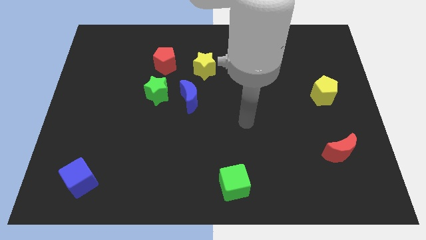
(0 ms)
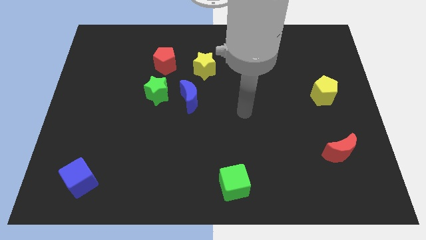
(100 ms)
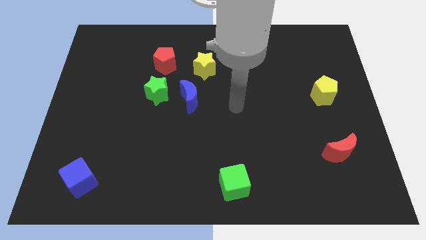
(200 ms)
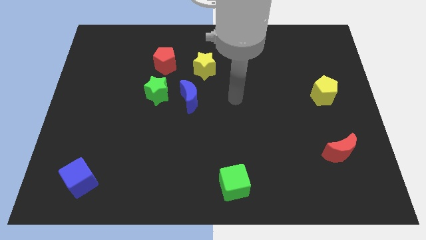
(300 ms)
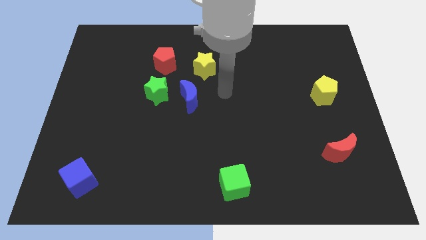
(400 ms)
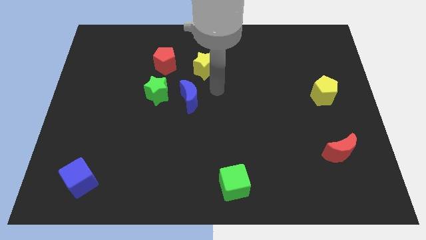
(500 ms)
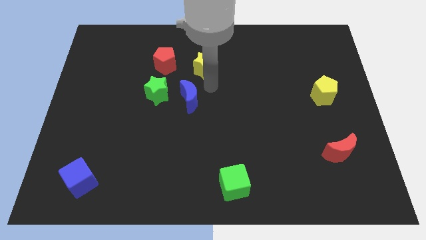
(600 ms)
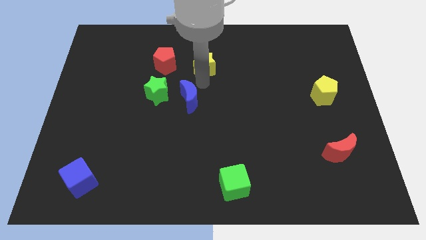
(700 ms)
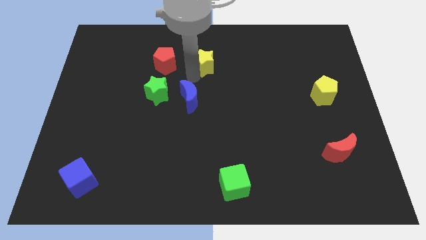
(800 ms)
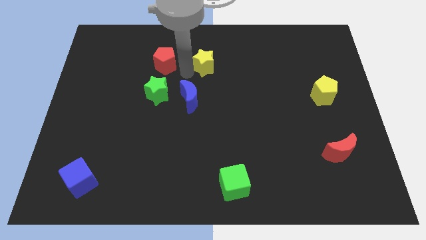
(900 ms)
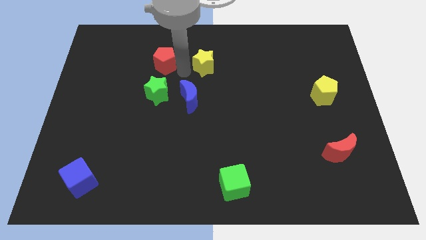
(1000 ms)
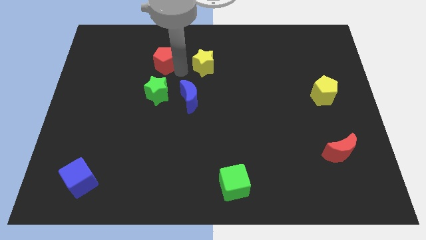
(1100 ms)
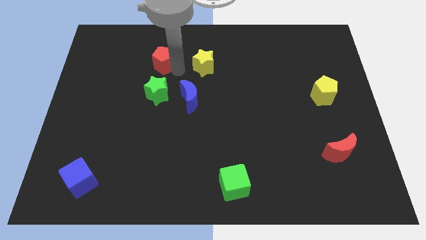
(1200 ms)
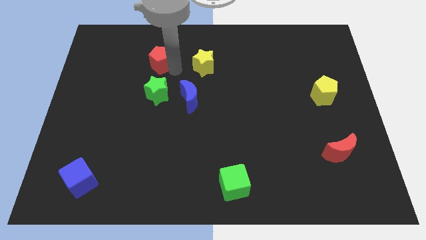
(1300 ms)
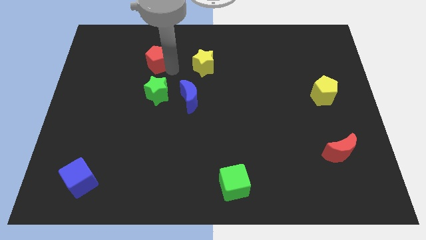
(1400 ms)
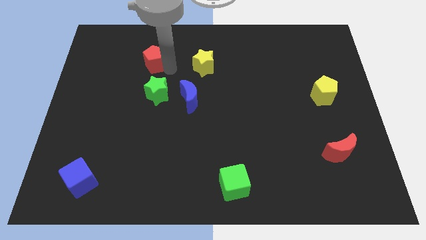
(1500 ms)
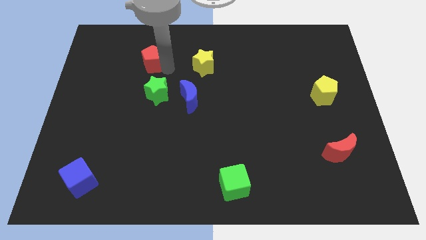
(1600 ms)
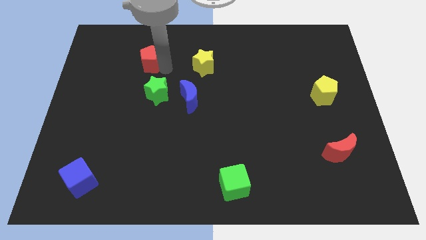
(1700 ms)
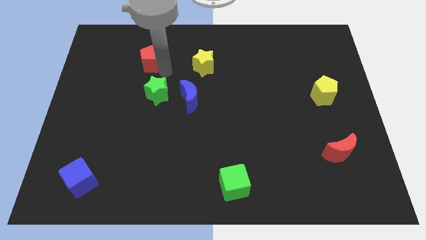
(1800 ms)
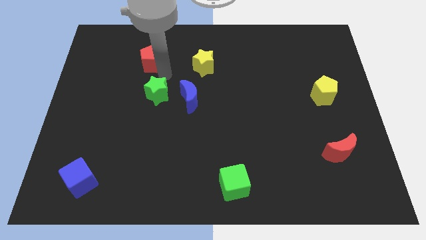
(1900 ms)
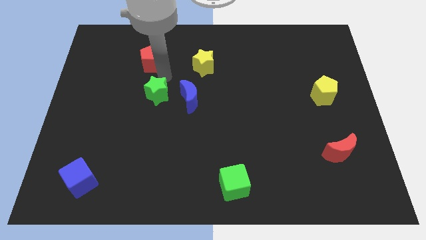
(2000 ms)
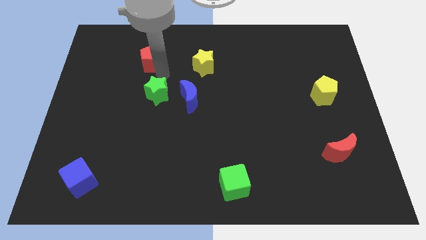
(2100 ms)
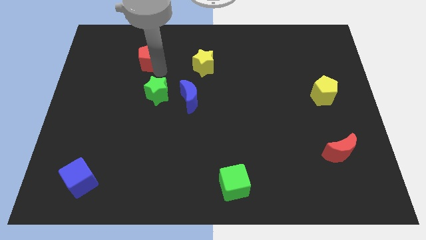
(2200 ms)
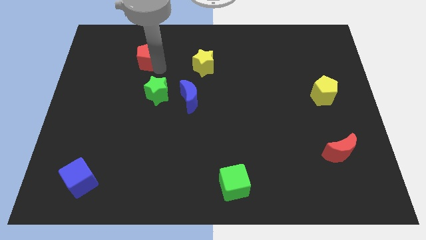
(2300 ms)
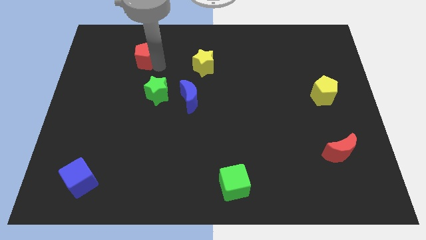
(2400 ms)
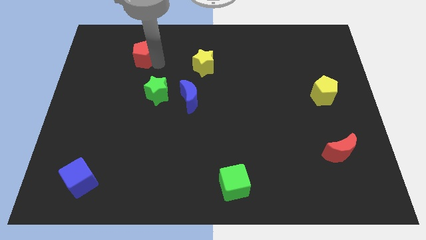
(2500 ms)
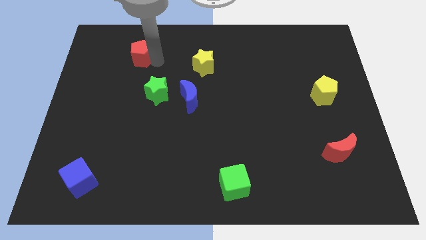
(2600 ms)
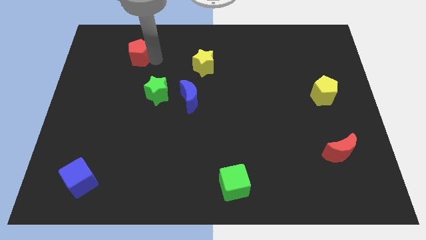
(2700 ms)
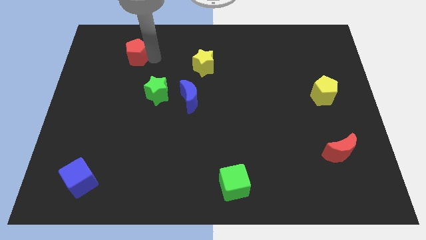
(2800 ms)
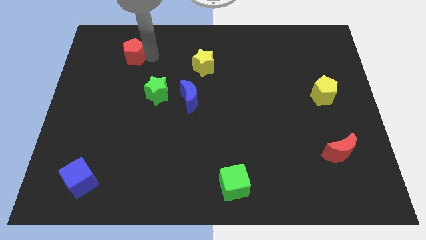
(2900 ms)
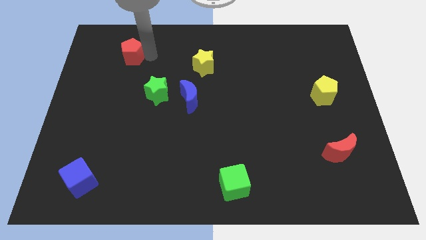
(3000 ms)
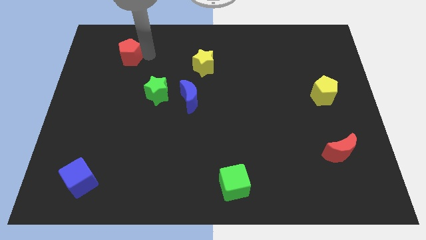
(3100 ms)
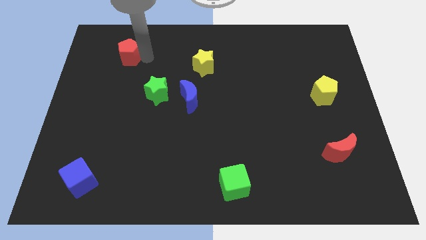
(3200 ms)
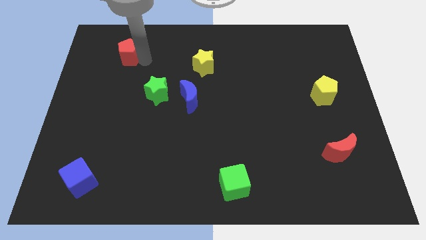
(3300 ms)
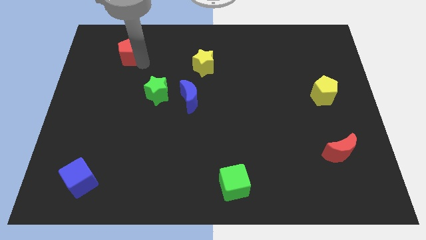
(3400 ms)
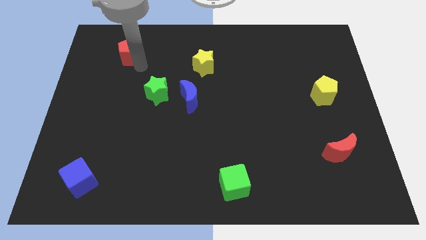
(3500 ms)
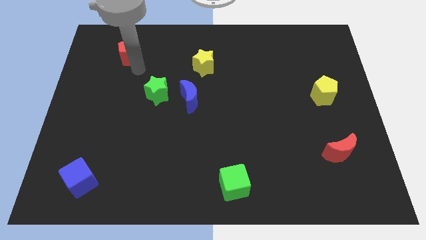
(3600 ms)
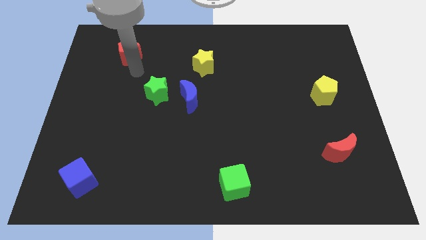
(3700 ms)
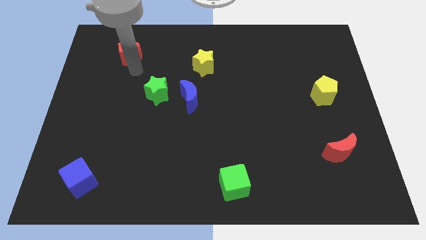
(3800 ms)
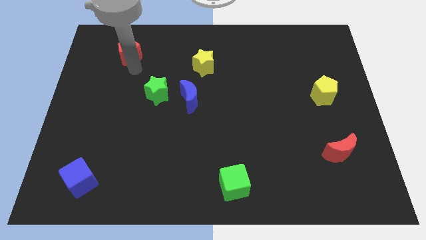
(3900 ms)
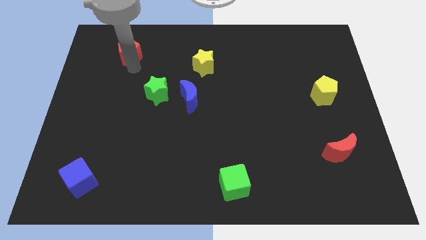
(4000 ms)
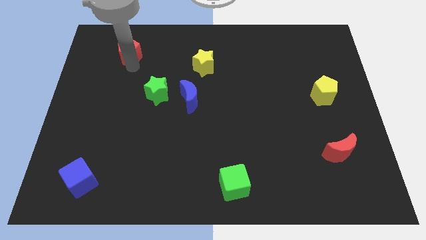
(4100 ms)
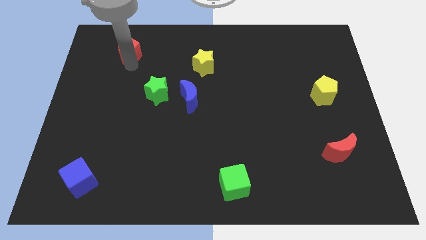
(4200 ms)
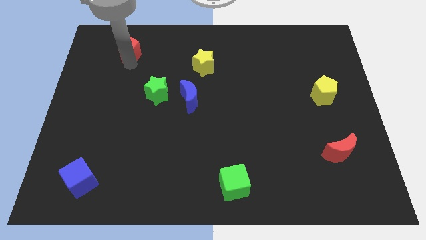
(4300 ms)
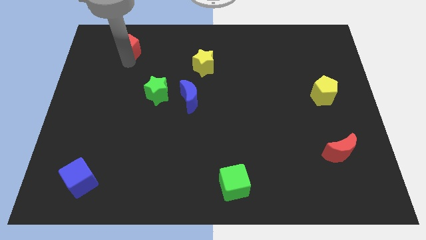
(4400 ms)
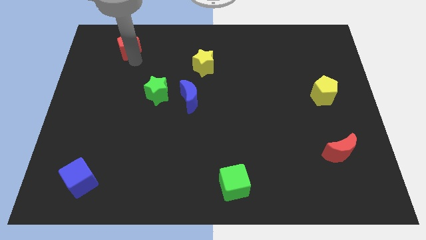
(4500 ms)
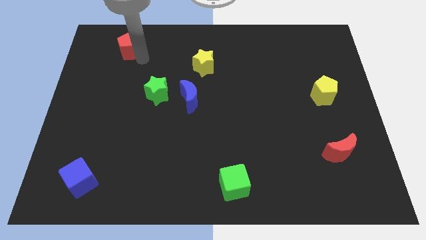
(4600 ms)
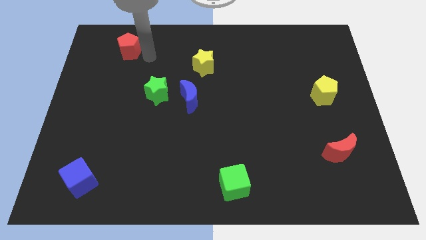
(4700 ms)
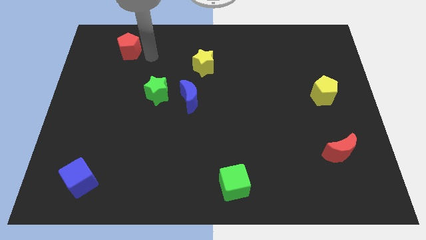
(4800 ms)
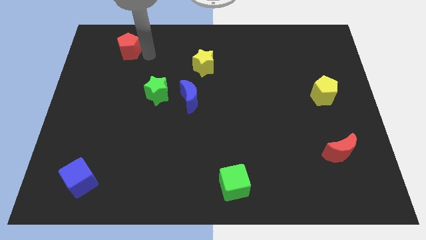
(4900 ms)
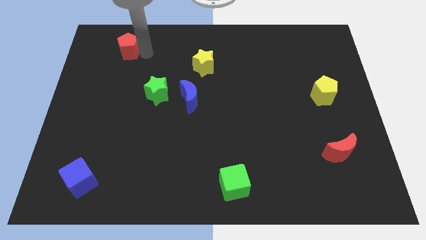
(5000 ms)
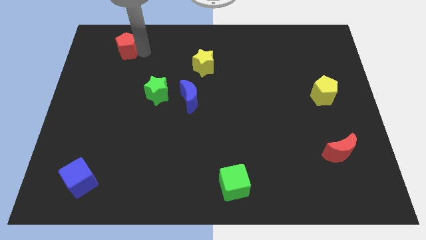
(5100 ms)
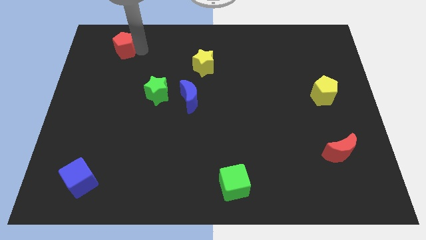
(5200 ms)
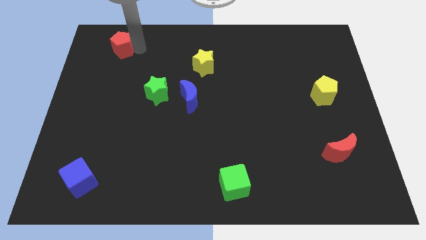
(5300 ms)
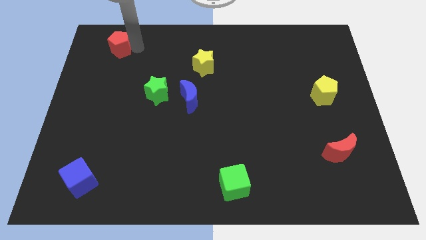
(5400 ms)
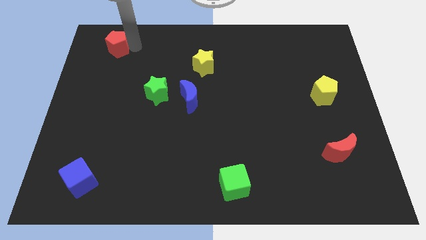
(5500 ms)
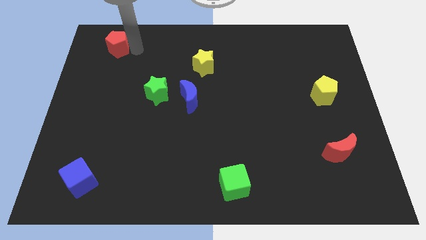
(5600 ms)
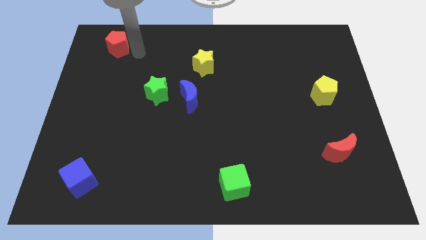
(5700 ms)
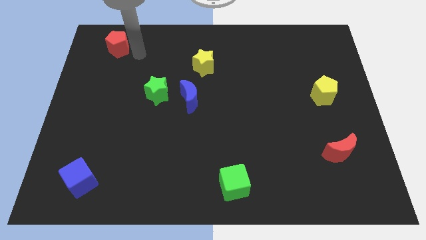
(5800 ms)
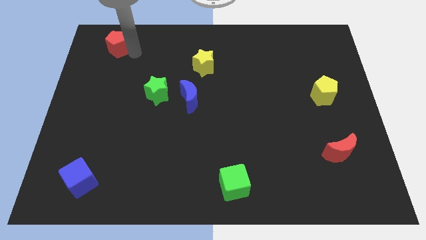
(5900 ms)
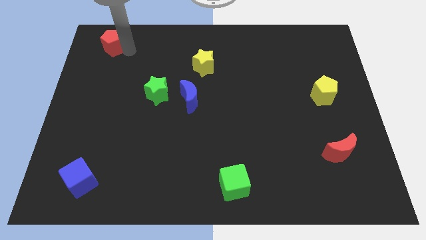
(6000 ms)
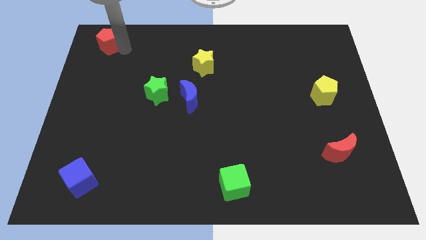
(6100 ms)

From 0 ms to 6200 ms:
slide the red pentagon to the upper left corner

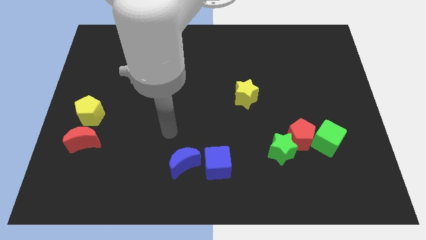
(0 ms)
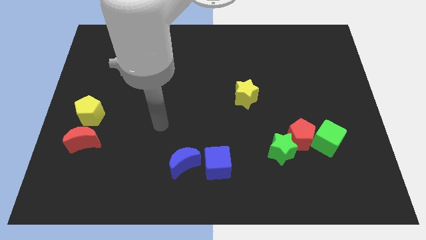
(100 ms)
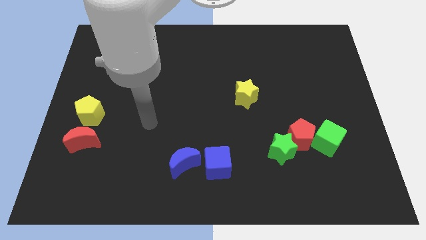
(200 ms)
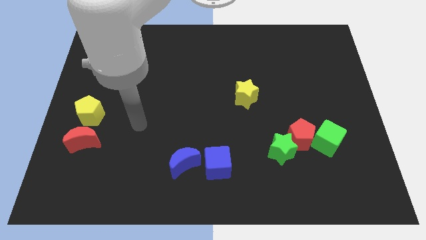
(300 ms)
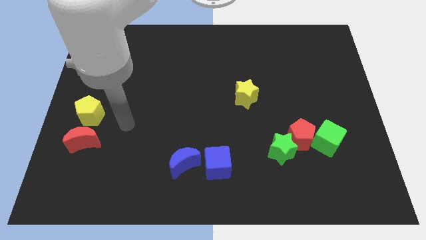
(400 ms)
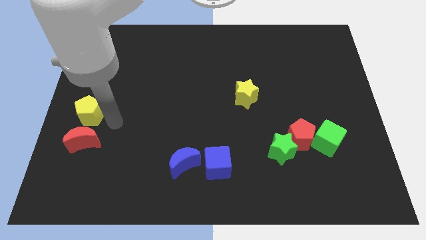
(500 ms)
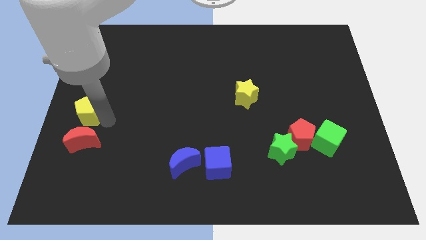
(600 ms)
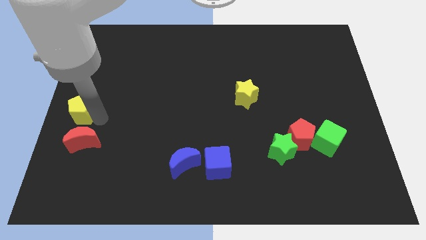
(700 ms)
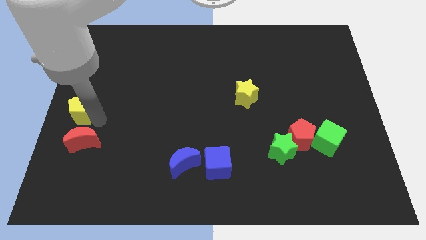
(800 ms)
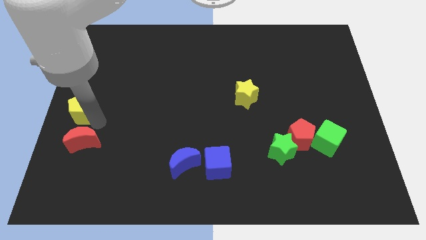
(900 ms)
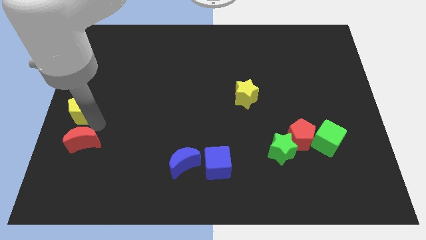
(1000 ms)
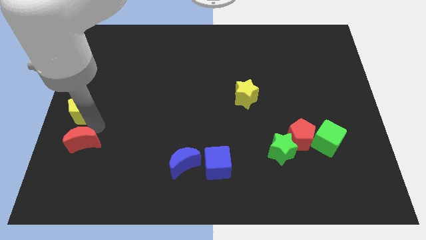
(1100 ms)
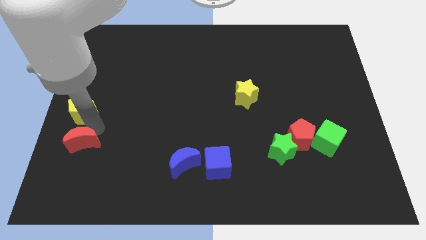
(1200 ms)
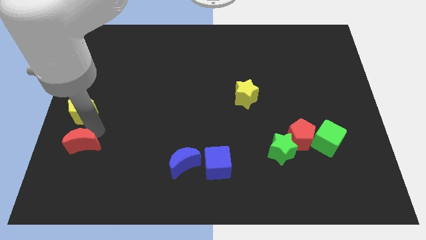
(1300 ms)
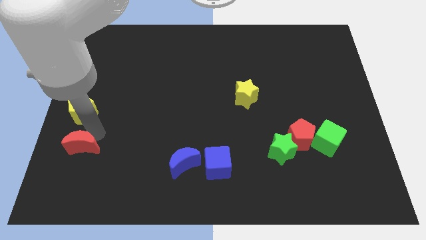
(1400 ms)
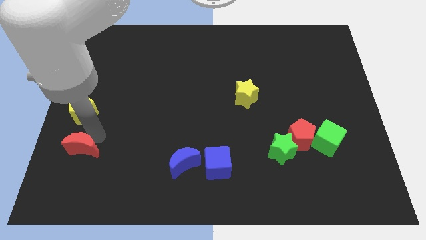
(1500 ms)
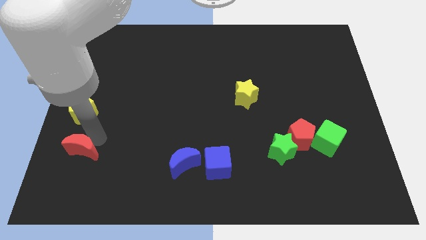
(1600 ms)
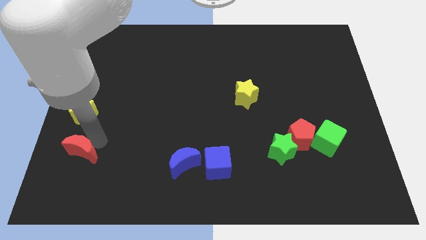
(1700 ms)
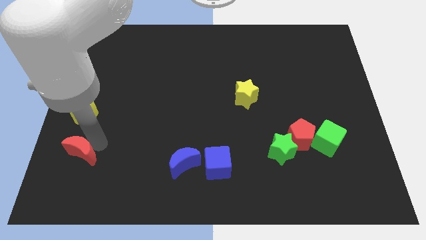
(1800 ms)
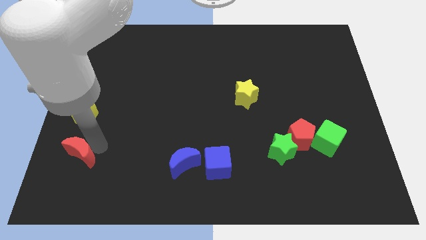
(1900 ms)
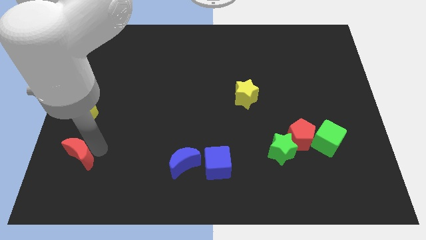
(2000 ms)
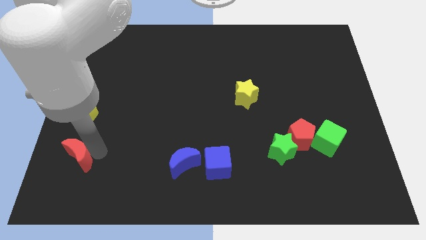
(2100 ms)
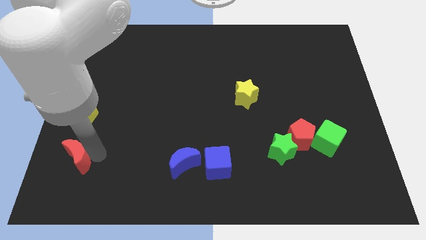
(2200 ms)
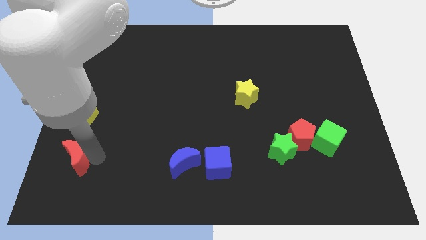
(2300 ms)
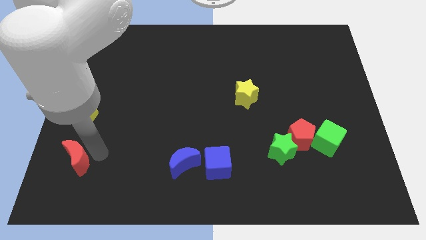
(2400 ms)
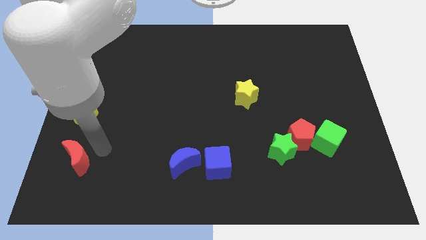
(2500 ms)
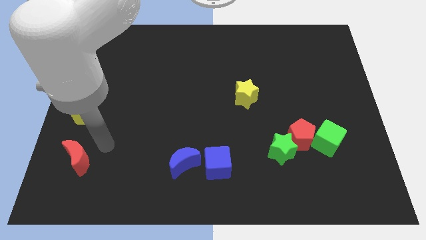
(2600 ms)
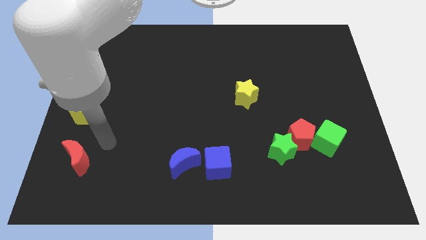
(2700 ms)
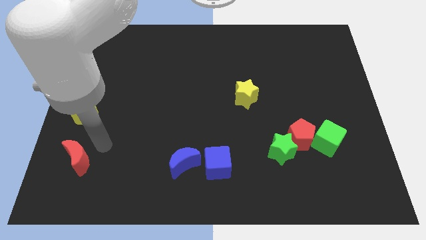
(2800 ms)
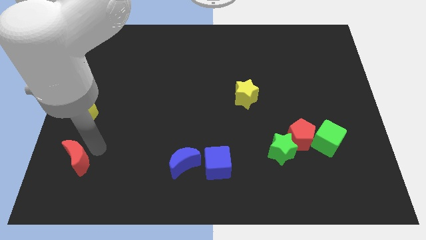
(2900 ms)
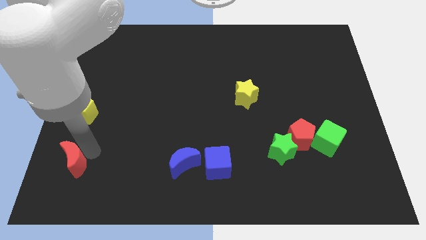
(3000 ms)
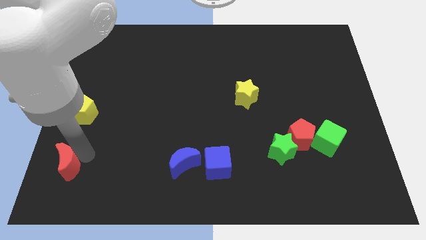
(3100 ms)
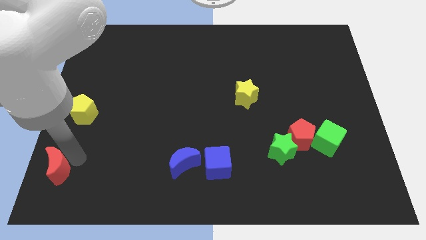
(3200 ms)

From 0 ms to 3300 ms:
push the red moon to the bottom left corner
